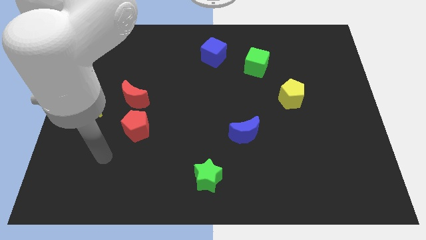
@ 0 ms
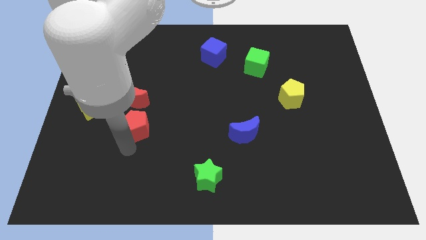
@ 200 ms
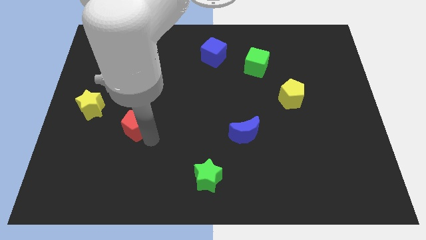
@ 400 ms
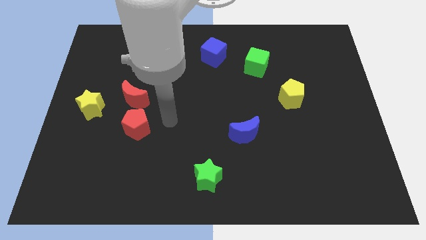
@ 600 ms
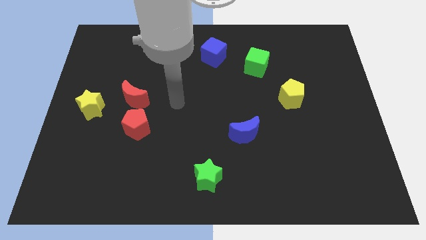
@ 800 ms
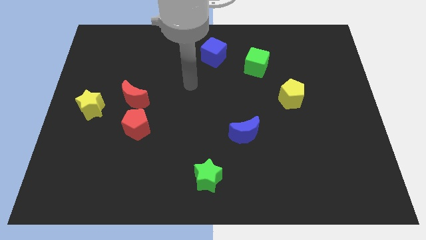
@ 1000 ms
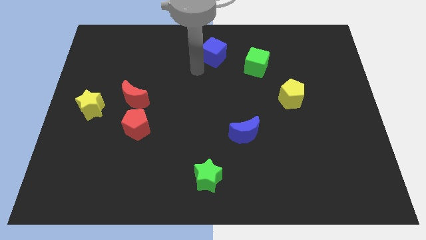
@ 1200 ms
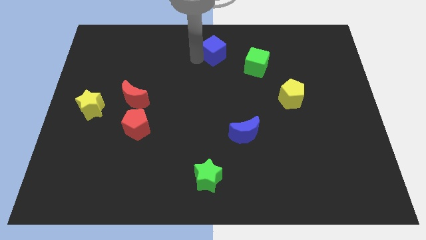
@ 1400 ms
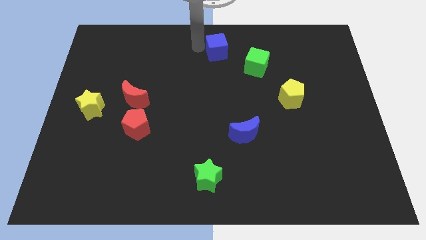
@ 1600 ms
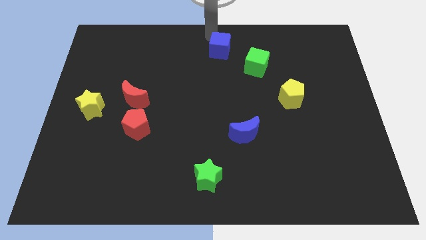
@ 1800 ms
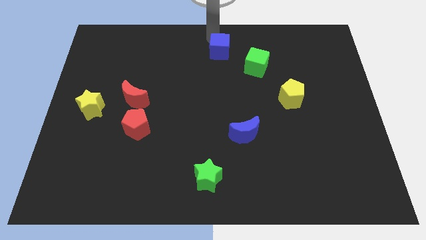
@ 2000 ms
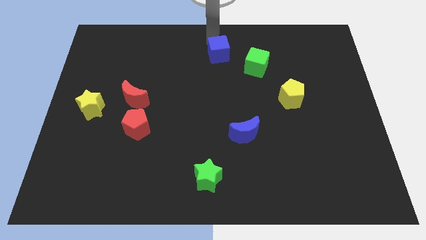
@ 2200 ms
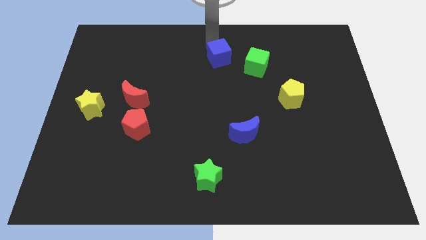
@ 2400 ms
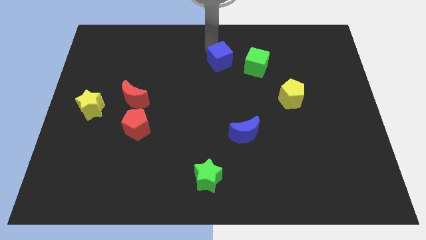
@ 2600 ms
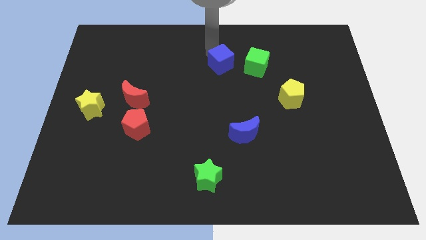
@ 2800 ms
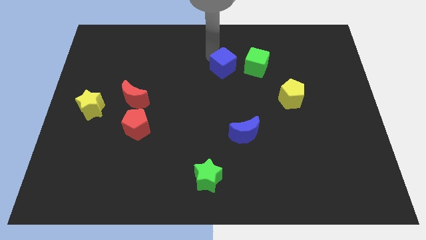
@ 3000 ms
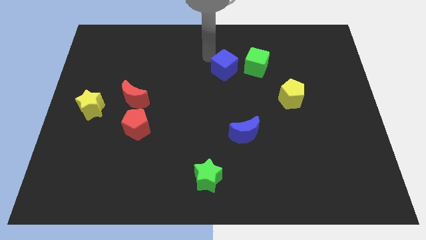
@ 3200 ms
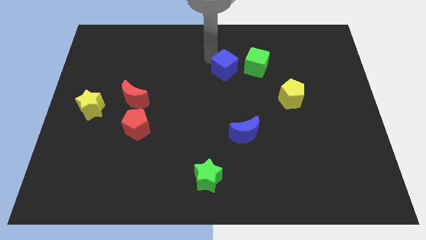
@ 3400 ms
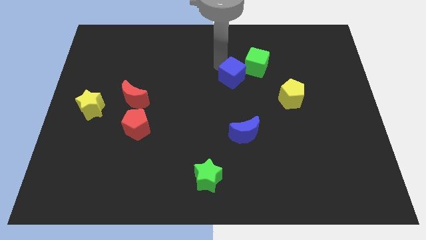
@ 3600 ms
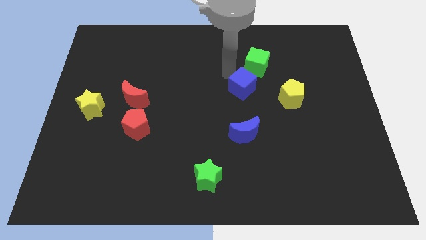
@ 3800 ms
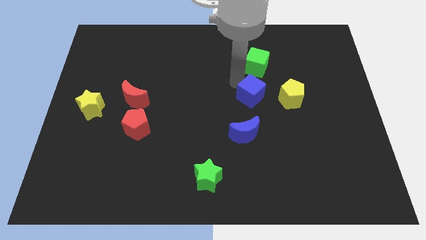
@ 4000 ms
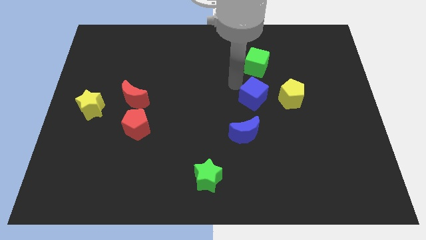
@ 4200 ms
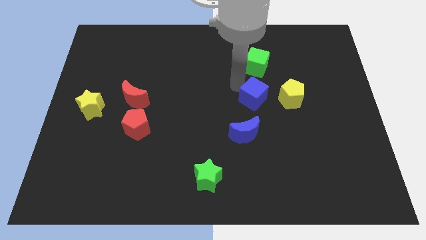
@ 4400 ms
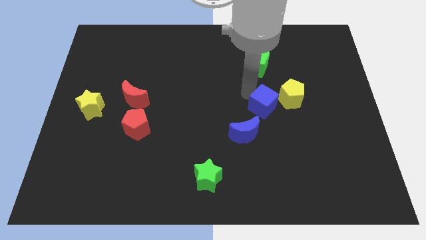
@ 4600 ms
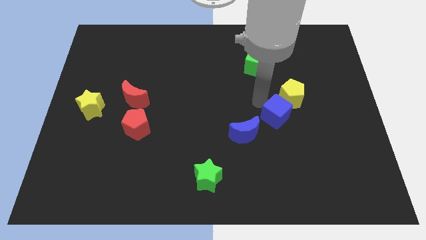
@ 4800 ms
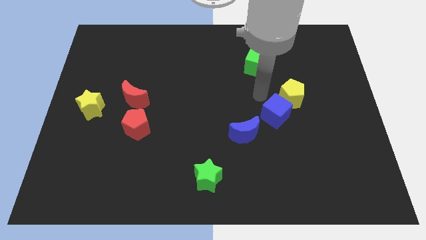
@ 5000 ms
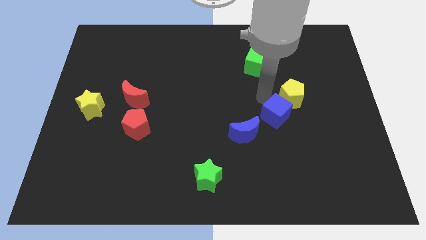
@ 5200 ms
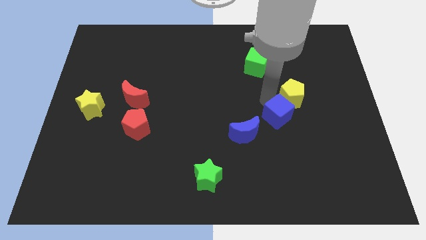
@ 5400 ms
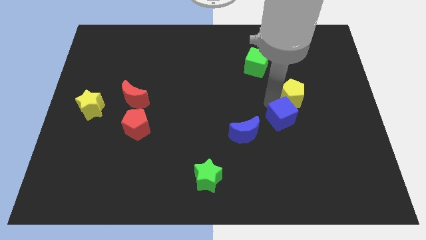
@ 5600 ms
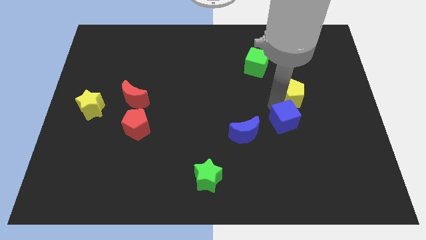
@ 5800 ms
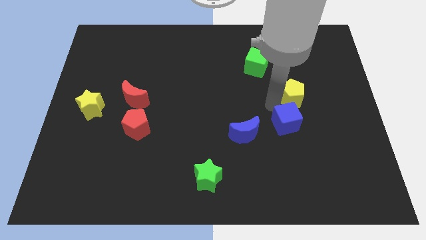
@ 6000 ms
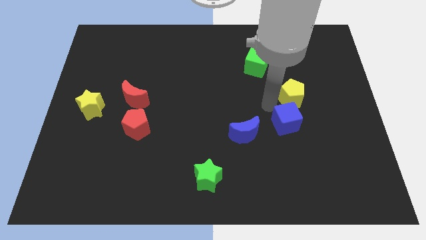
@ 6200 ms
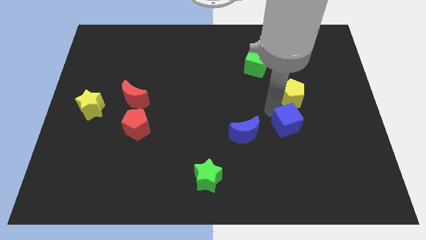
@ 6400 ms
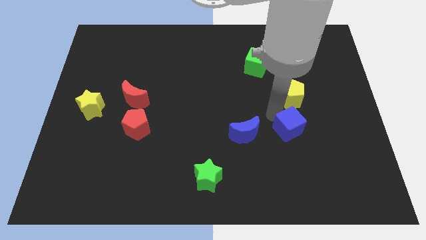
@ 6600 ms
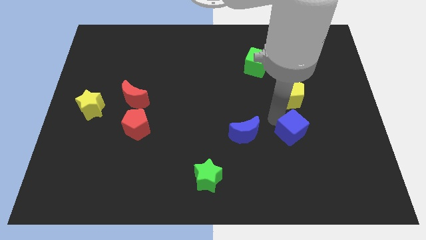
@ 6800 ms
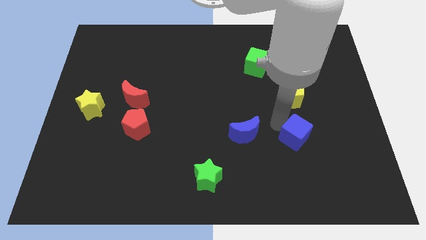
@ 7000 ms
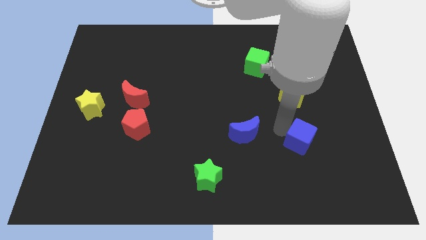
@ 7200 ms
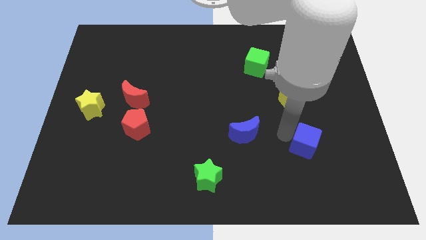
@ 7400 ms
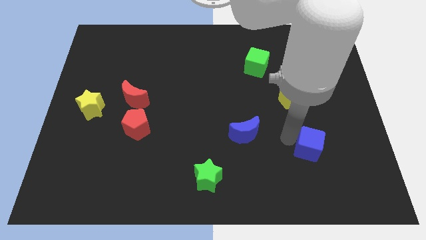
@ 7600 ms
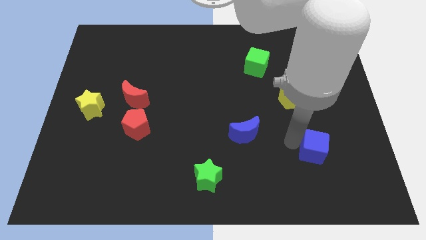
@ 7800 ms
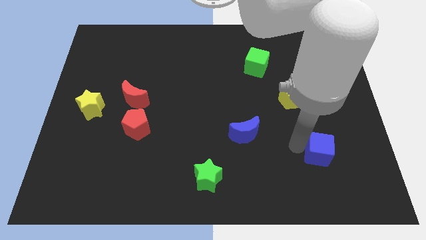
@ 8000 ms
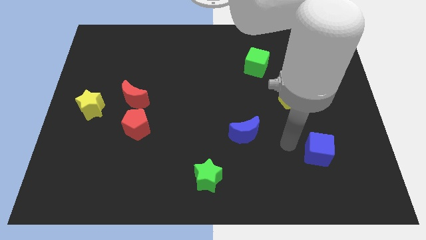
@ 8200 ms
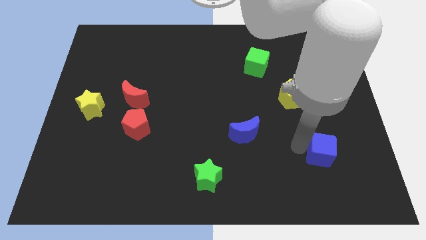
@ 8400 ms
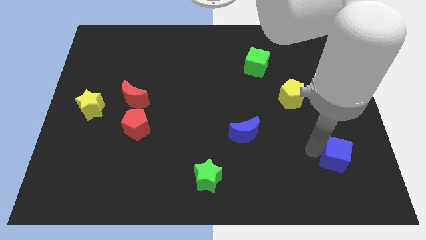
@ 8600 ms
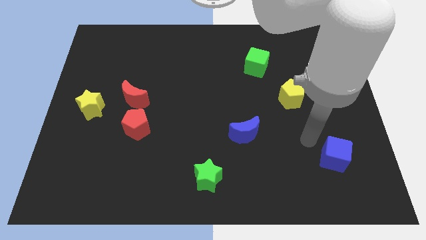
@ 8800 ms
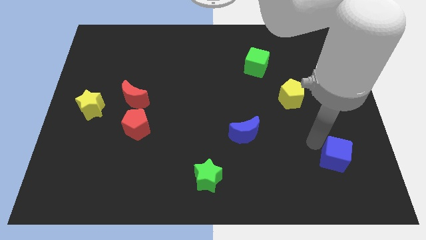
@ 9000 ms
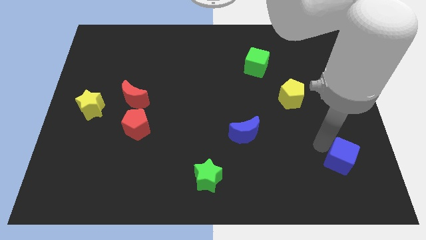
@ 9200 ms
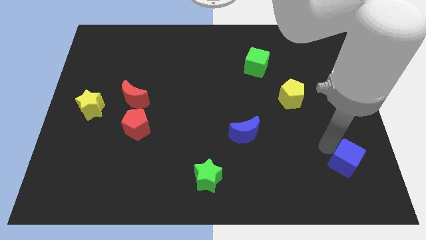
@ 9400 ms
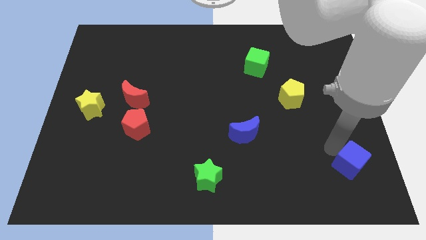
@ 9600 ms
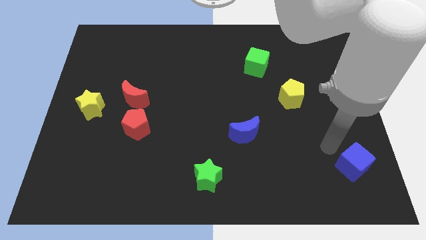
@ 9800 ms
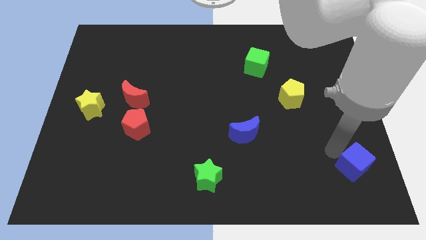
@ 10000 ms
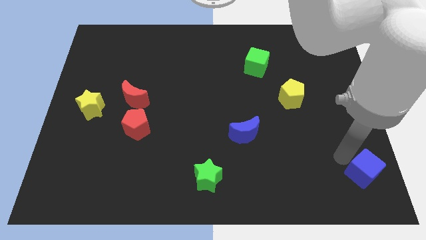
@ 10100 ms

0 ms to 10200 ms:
put the blue cube to the bottom right corner

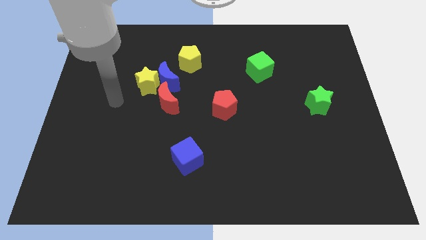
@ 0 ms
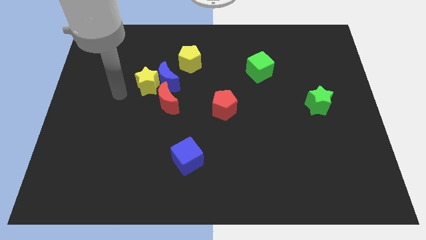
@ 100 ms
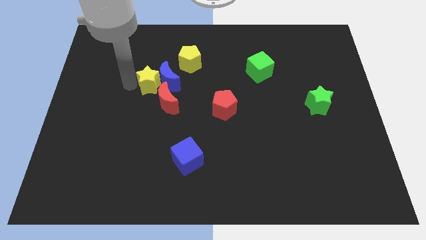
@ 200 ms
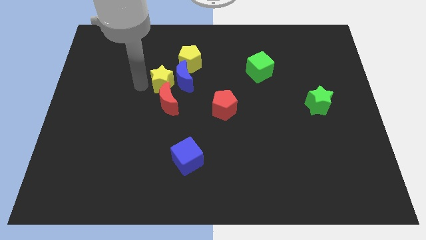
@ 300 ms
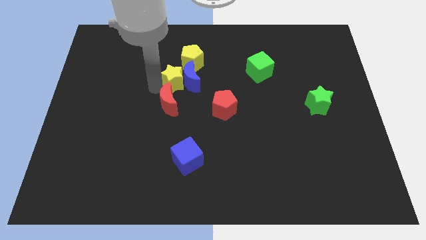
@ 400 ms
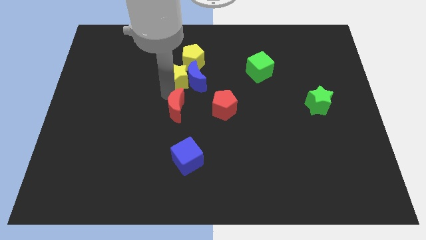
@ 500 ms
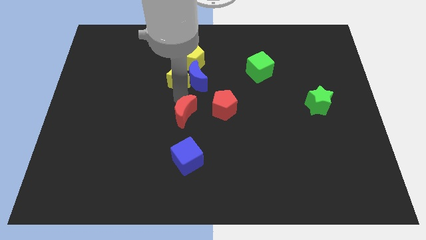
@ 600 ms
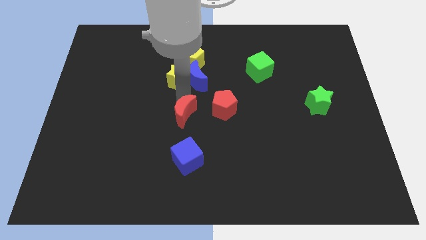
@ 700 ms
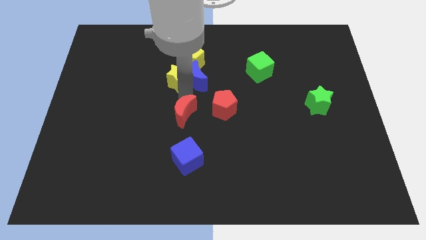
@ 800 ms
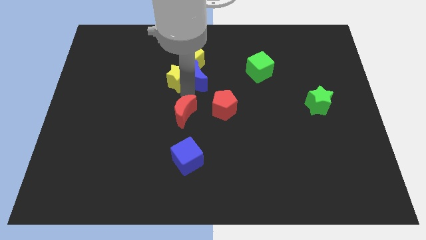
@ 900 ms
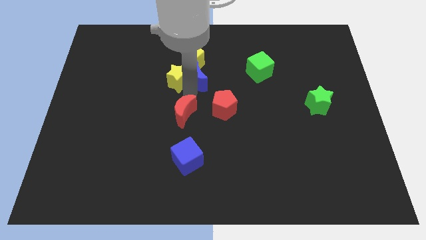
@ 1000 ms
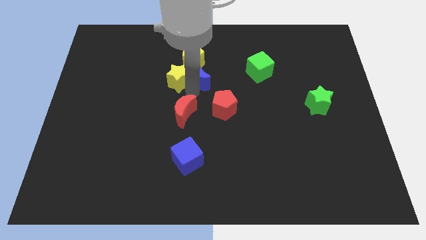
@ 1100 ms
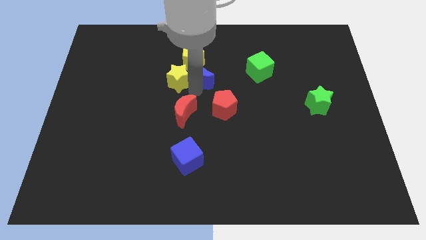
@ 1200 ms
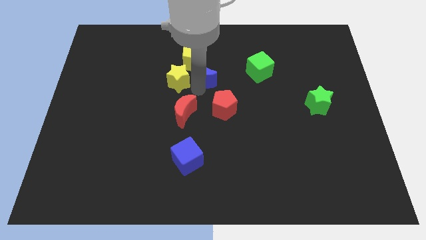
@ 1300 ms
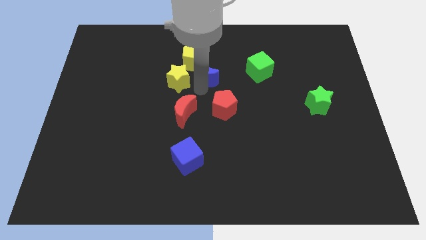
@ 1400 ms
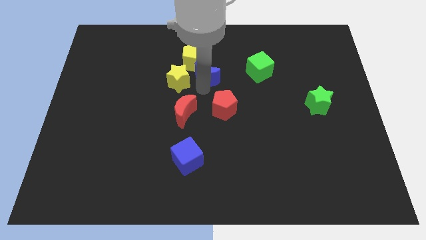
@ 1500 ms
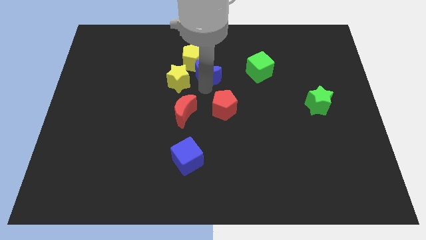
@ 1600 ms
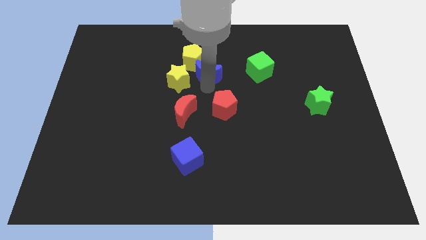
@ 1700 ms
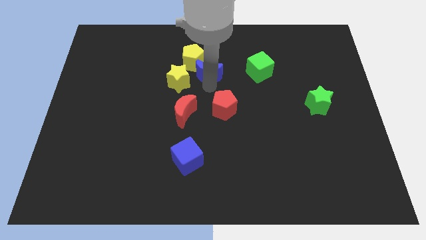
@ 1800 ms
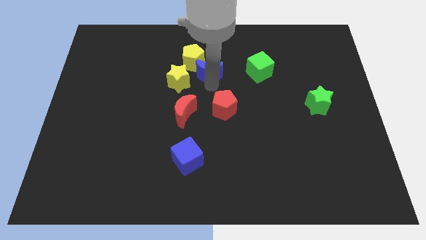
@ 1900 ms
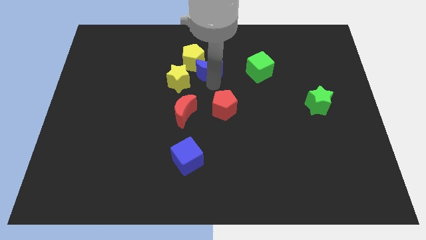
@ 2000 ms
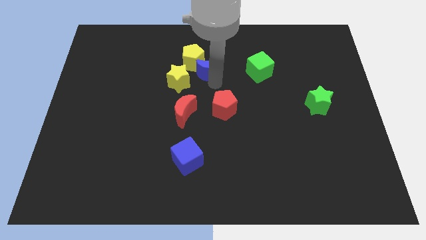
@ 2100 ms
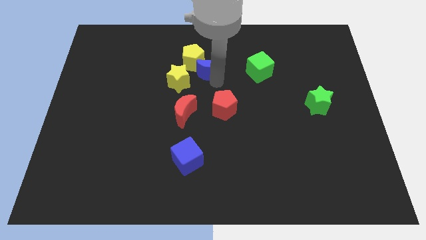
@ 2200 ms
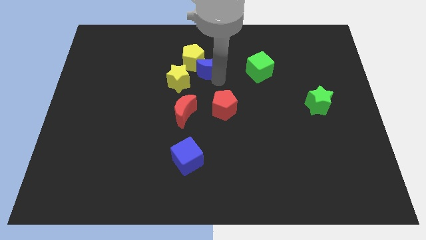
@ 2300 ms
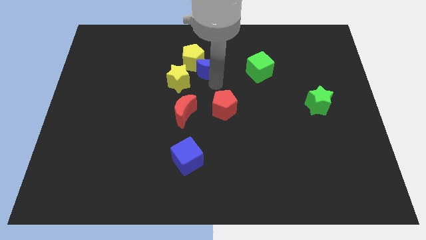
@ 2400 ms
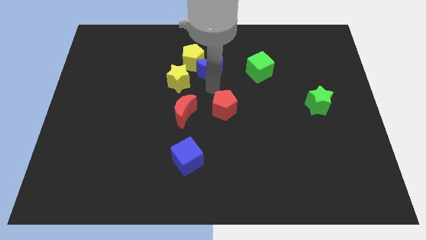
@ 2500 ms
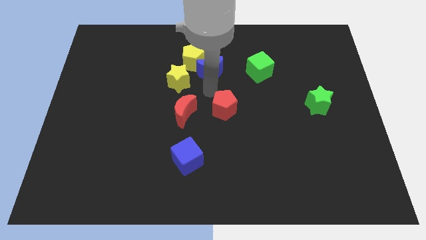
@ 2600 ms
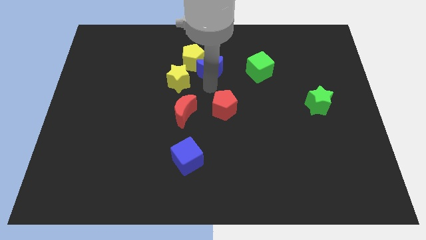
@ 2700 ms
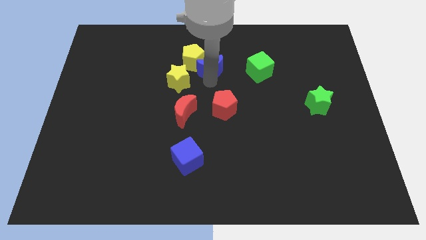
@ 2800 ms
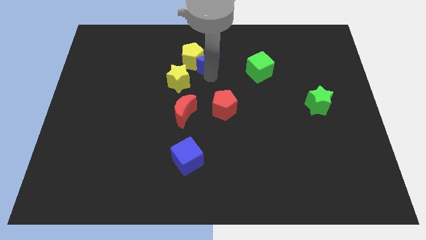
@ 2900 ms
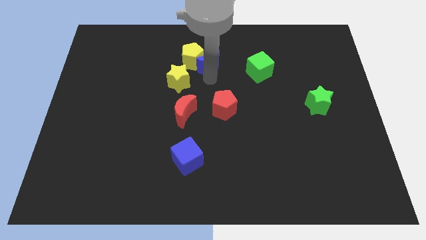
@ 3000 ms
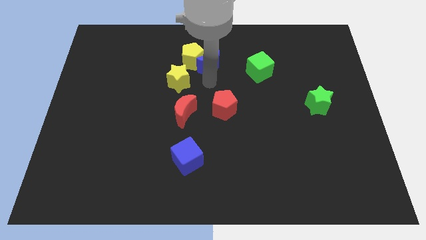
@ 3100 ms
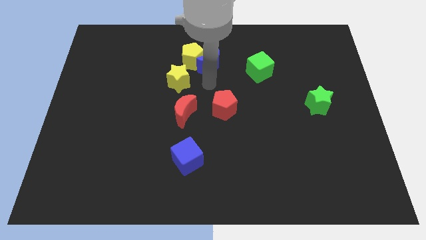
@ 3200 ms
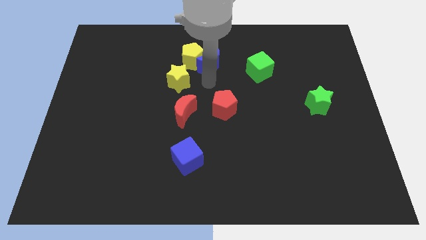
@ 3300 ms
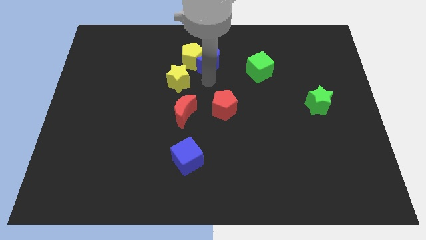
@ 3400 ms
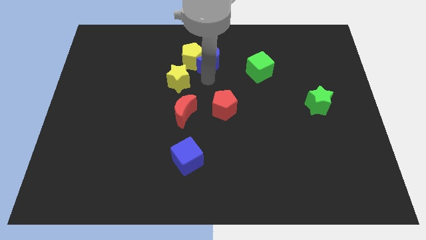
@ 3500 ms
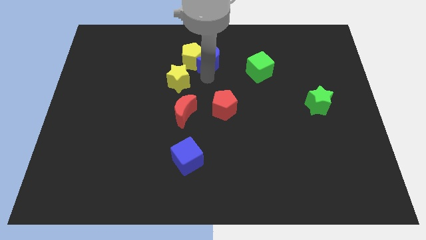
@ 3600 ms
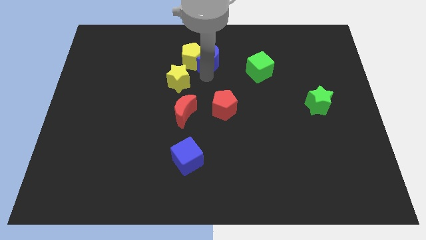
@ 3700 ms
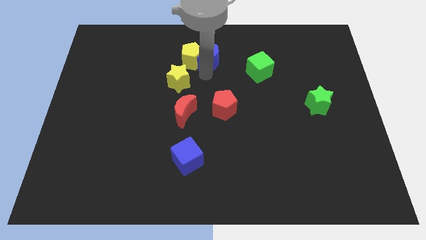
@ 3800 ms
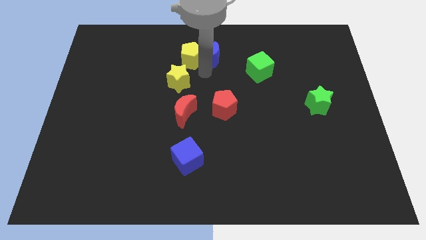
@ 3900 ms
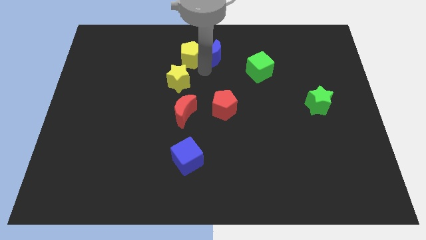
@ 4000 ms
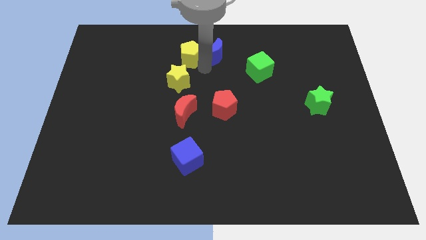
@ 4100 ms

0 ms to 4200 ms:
slide the blue moon to the top side
